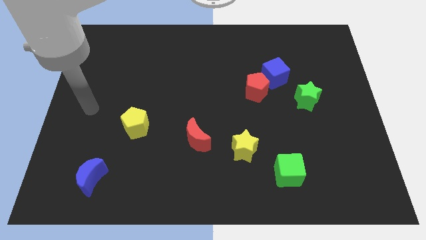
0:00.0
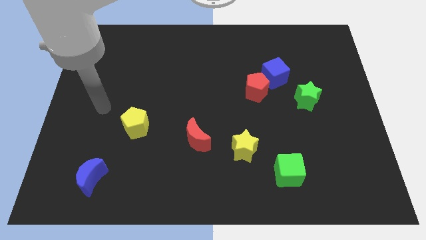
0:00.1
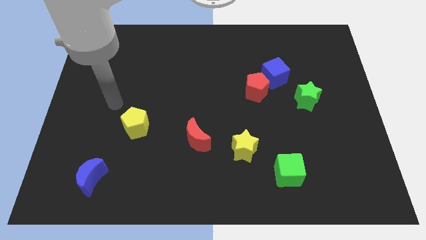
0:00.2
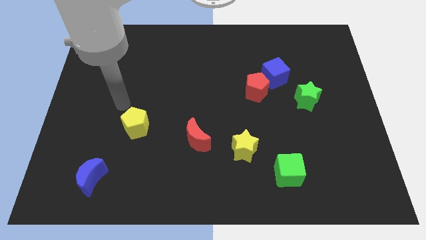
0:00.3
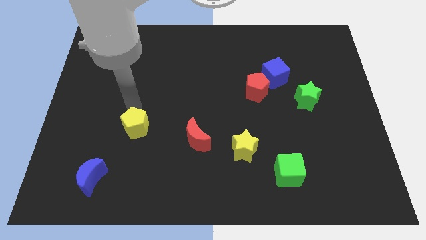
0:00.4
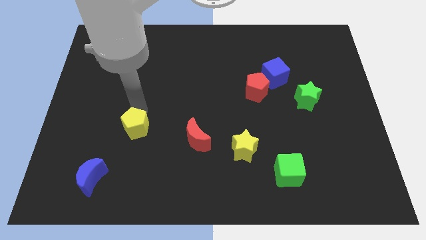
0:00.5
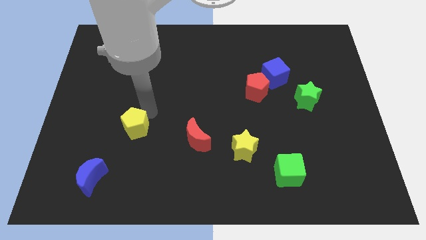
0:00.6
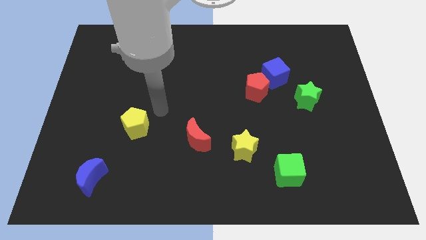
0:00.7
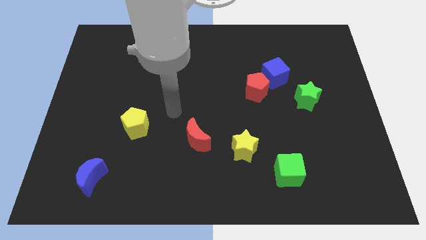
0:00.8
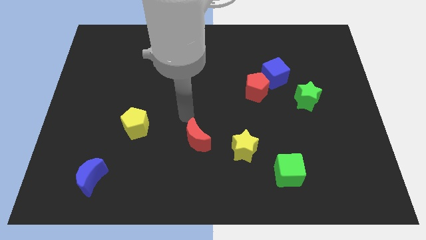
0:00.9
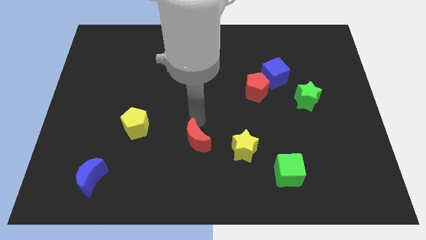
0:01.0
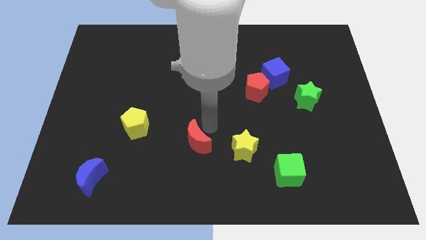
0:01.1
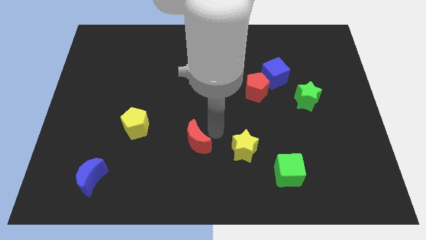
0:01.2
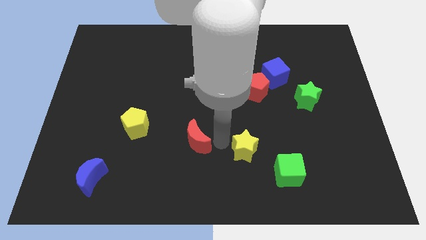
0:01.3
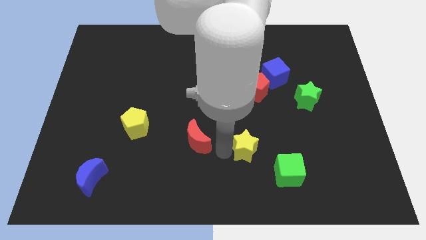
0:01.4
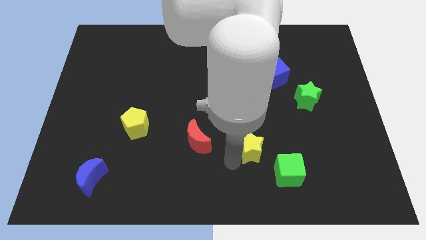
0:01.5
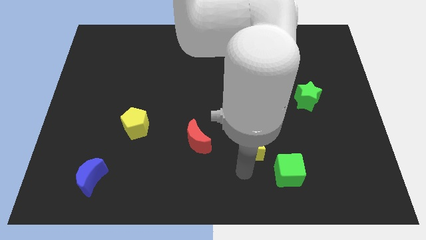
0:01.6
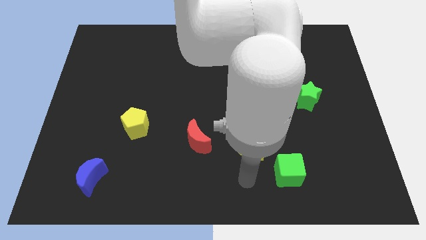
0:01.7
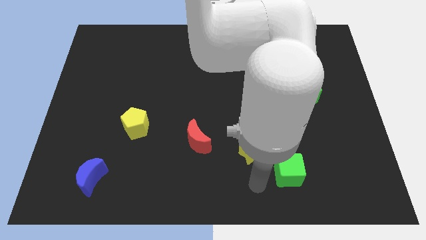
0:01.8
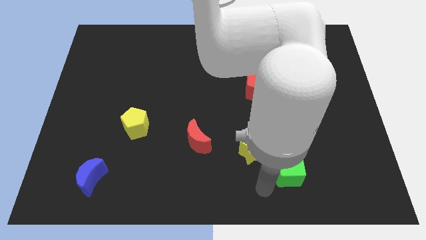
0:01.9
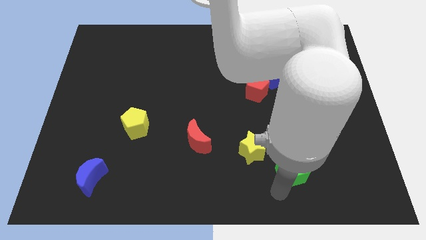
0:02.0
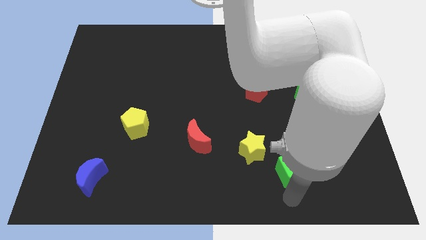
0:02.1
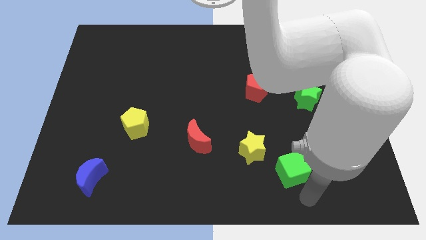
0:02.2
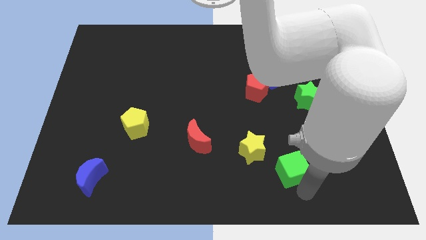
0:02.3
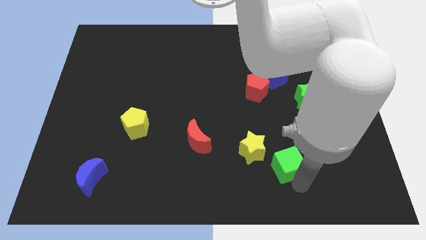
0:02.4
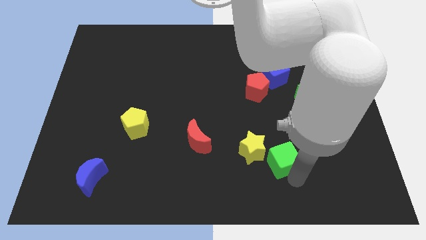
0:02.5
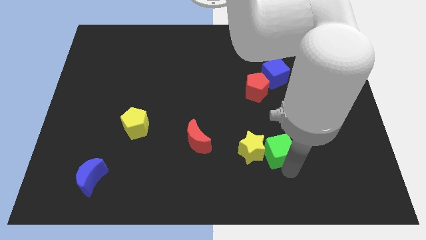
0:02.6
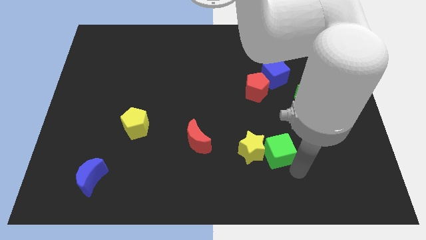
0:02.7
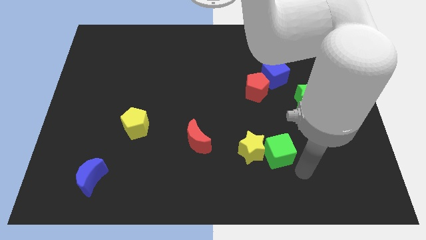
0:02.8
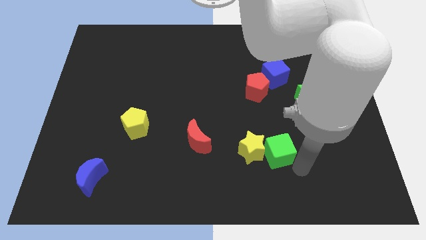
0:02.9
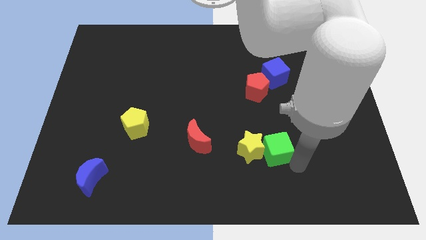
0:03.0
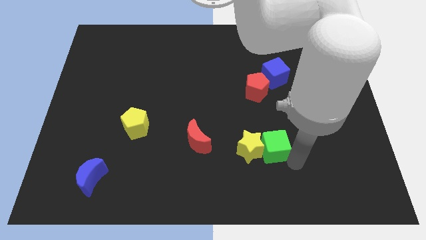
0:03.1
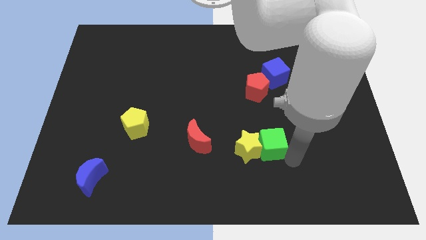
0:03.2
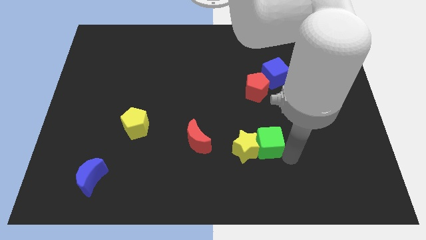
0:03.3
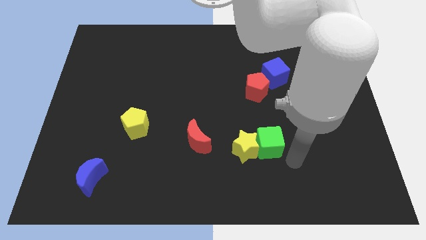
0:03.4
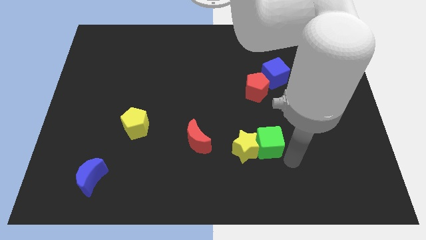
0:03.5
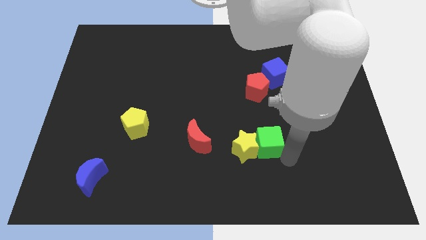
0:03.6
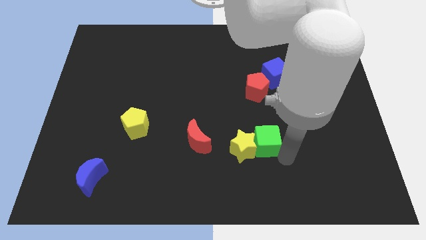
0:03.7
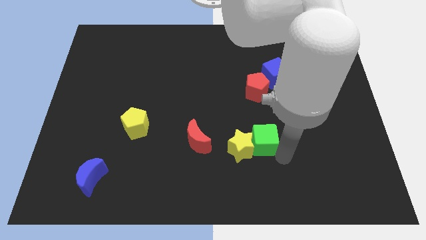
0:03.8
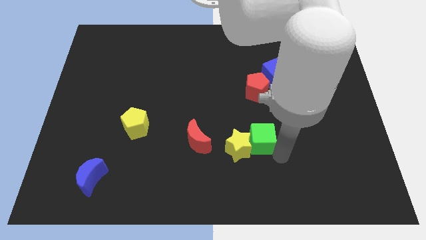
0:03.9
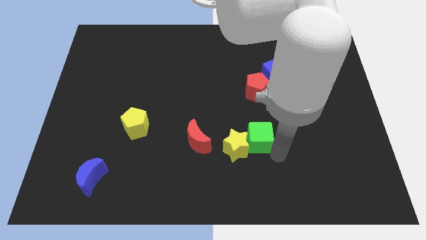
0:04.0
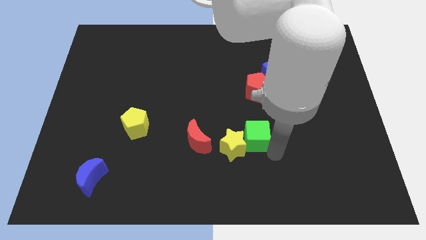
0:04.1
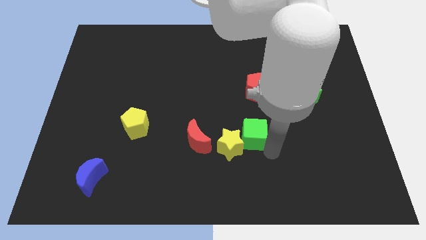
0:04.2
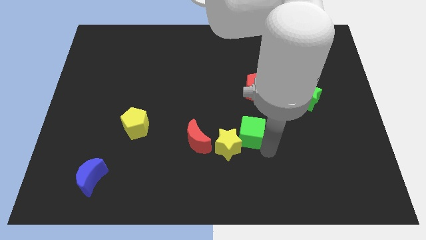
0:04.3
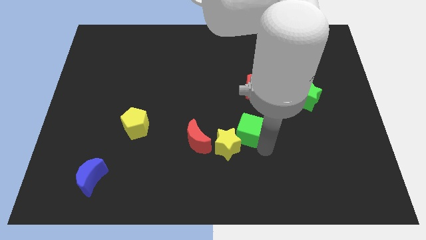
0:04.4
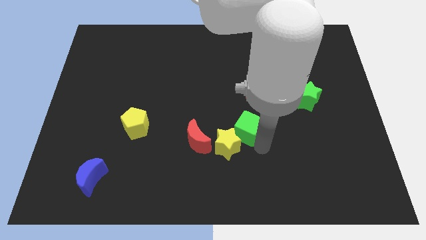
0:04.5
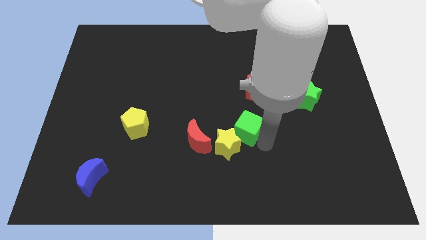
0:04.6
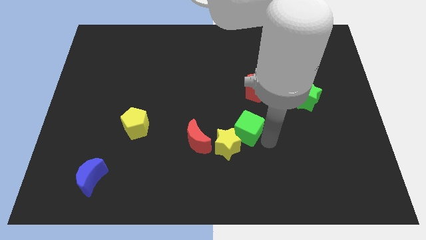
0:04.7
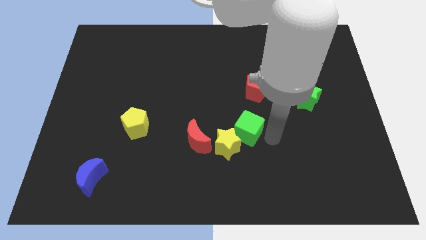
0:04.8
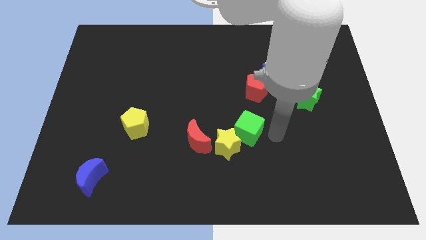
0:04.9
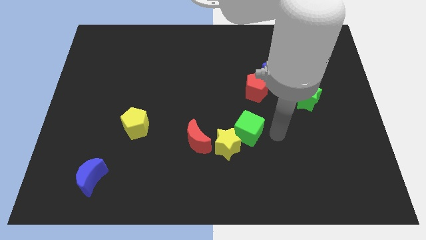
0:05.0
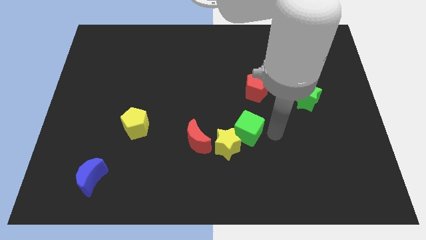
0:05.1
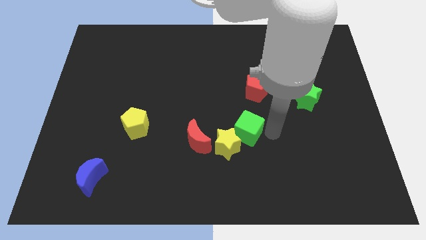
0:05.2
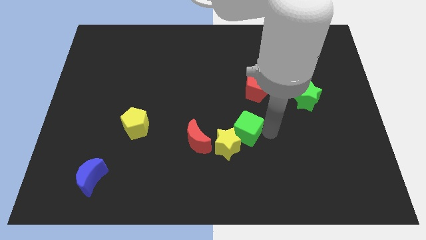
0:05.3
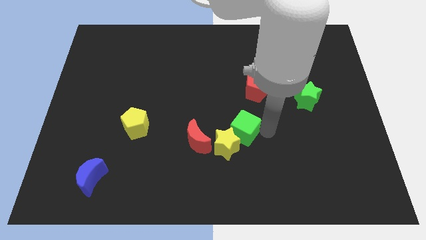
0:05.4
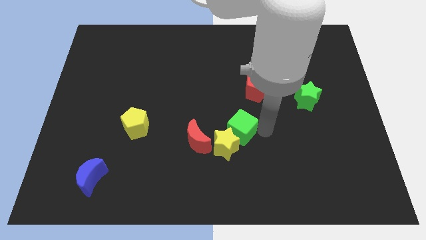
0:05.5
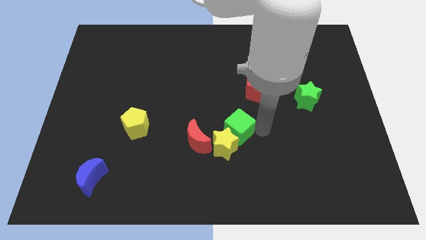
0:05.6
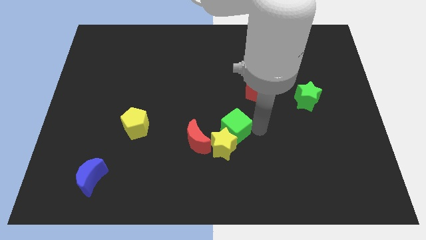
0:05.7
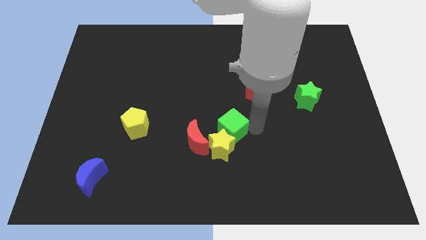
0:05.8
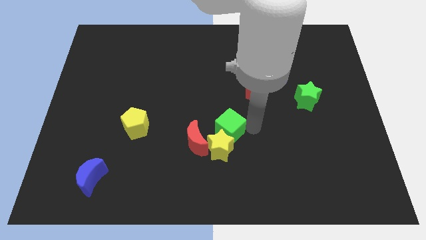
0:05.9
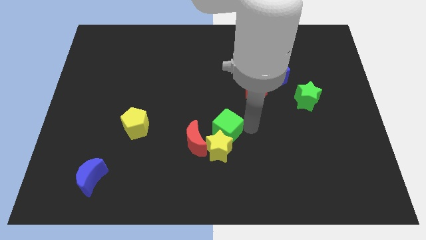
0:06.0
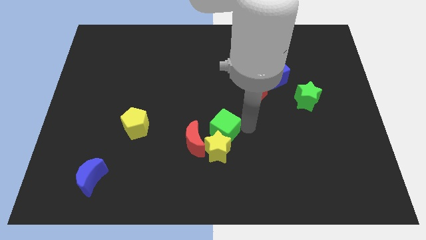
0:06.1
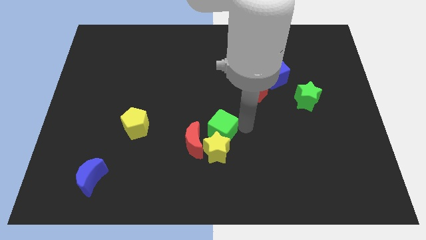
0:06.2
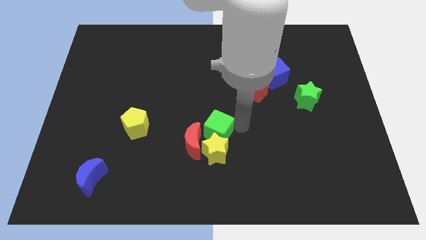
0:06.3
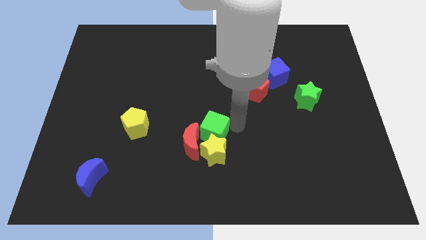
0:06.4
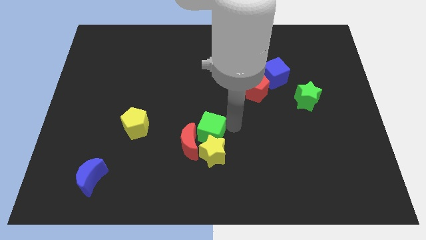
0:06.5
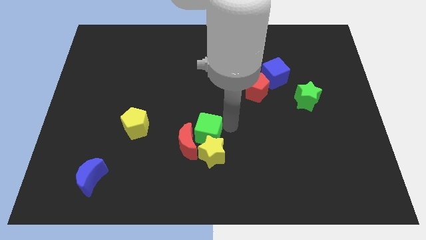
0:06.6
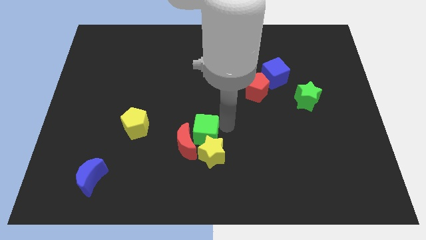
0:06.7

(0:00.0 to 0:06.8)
move the green cube just right of the yellow pentagon
